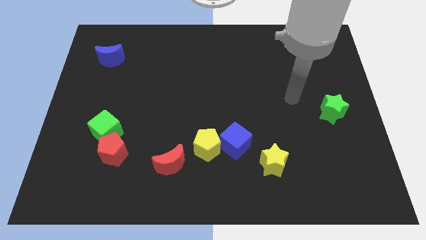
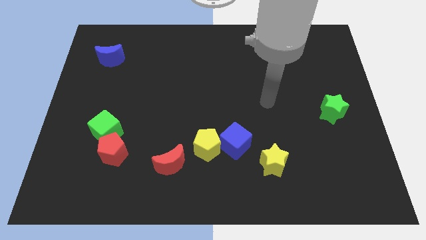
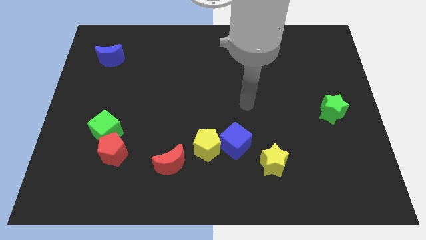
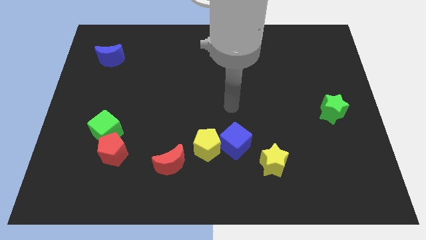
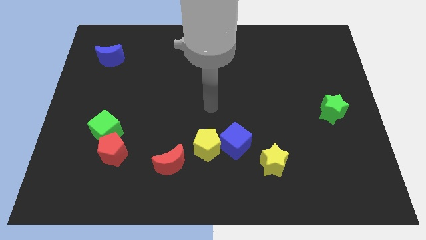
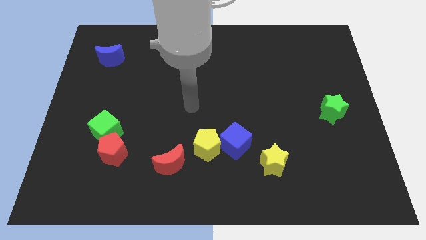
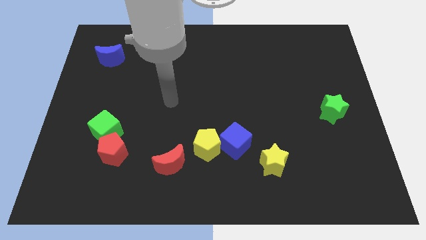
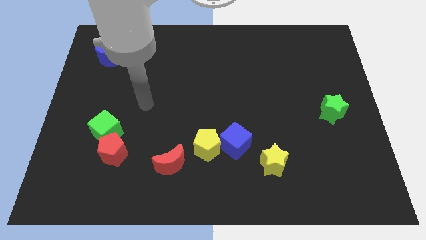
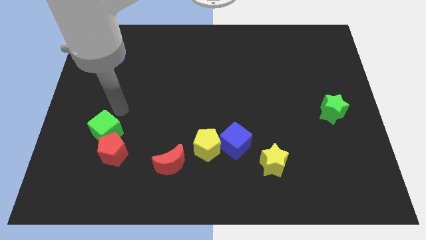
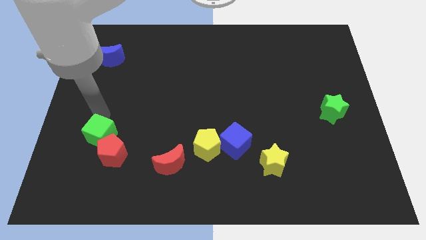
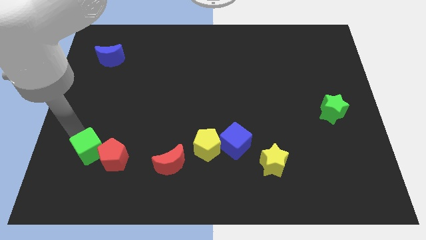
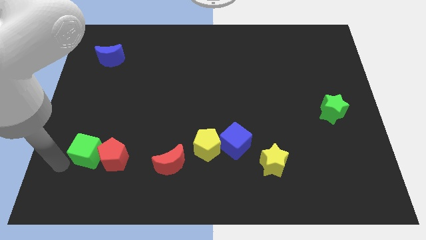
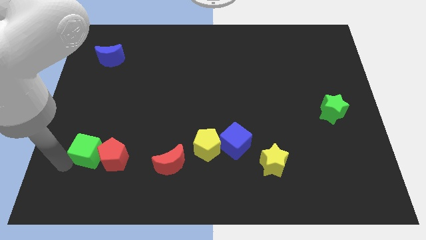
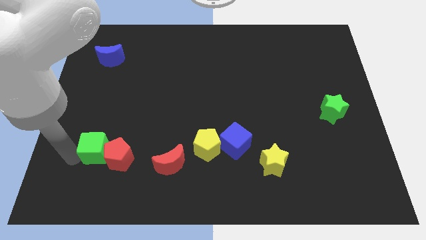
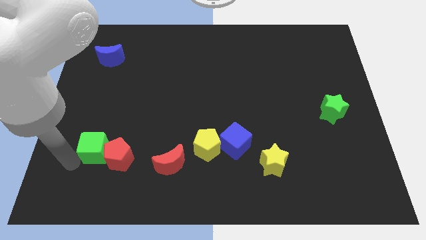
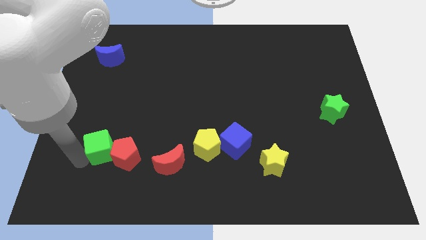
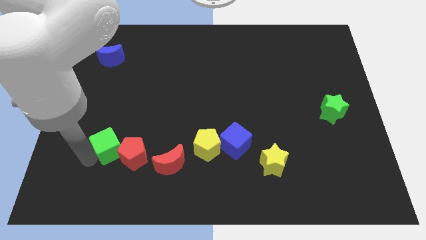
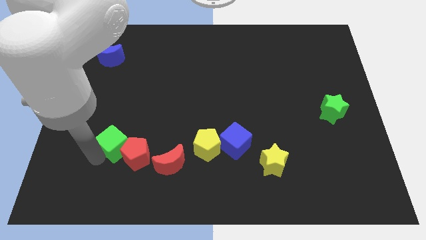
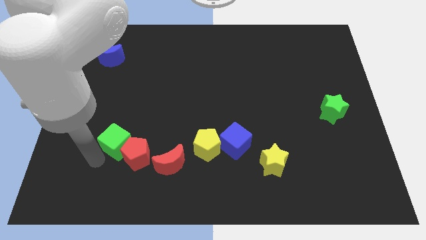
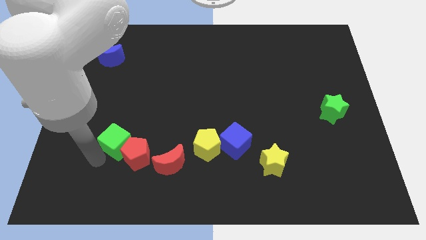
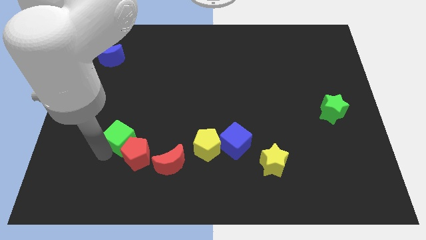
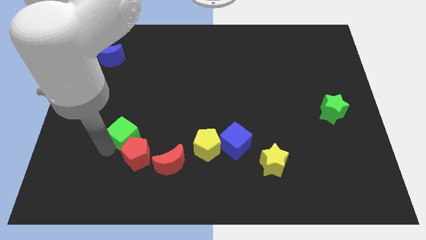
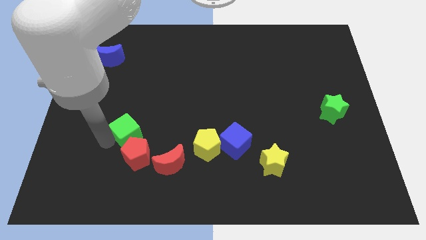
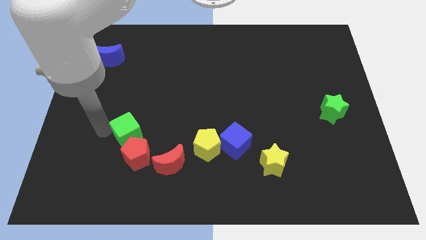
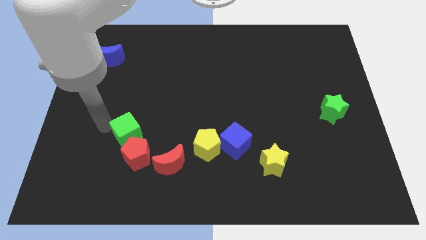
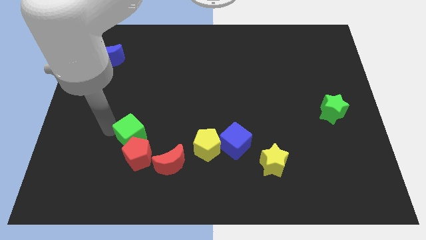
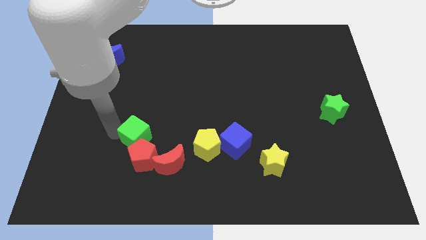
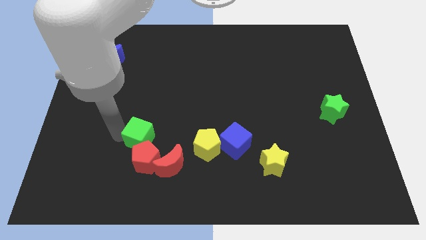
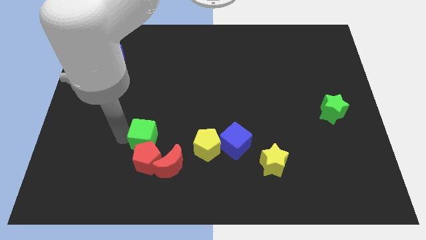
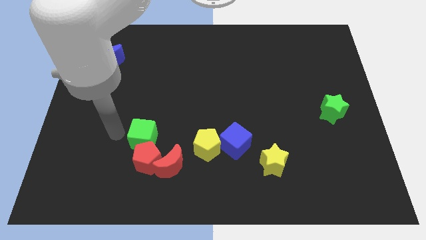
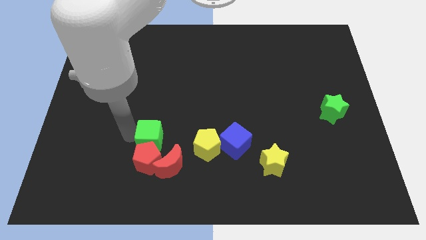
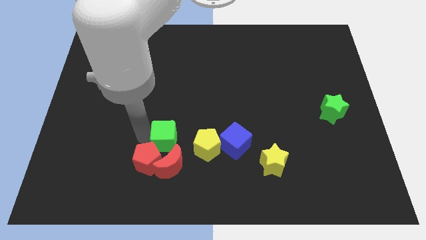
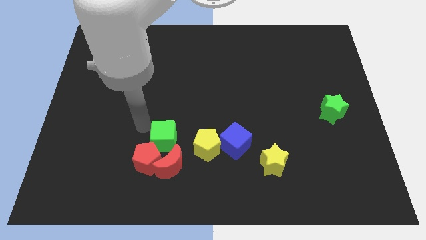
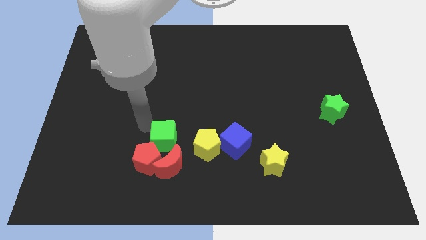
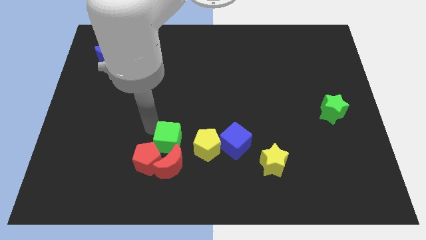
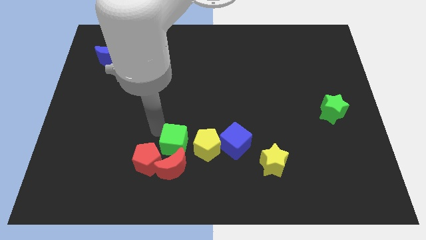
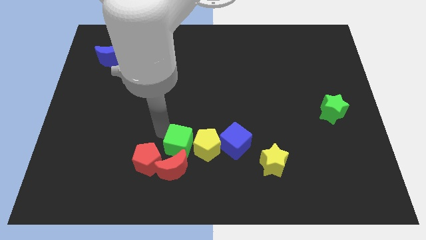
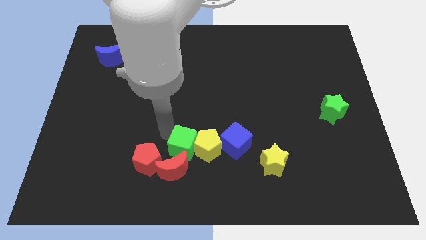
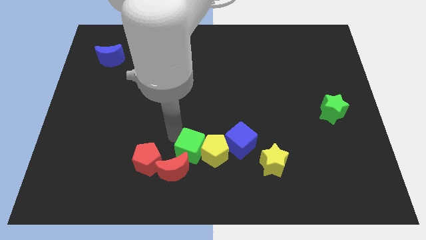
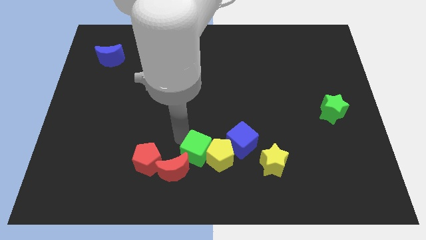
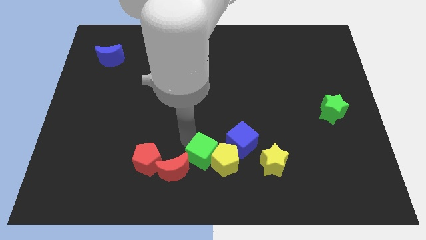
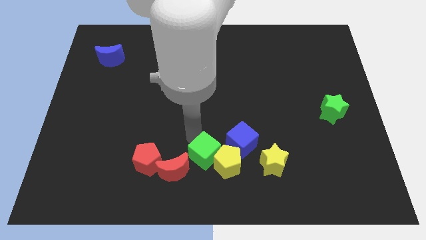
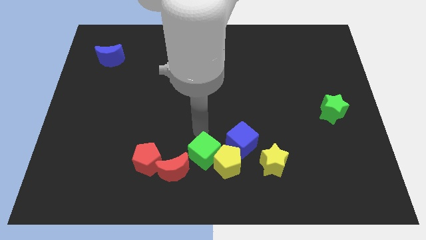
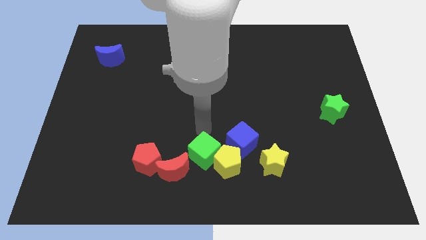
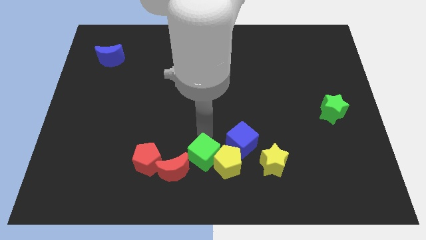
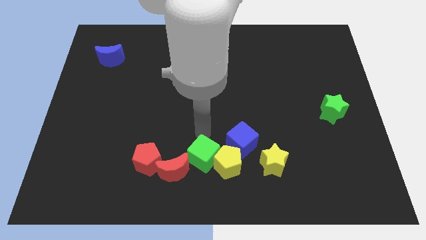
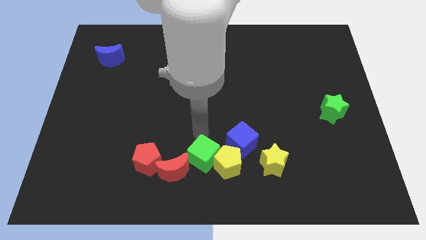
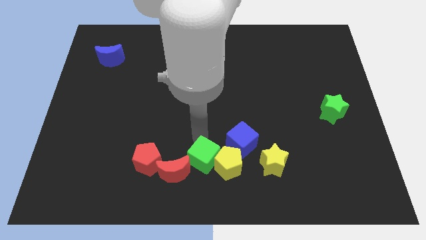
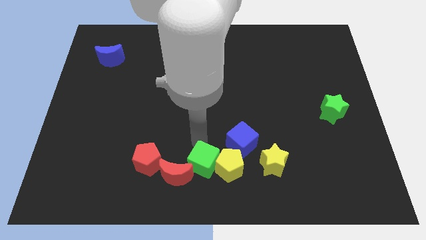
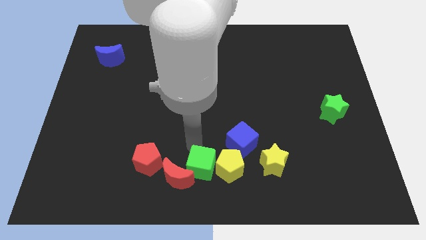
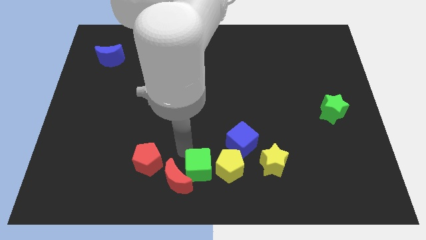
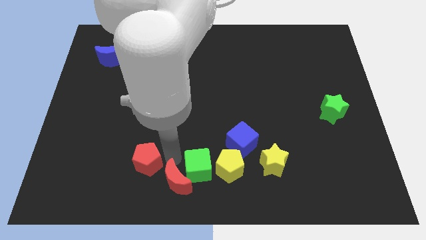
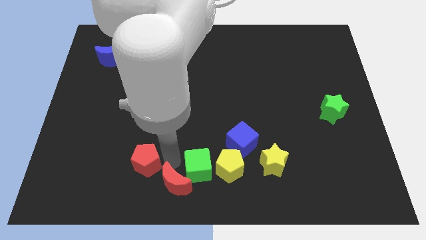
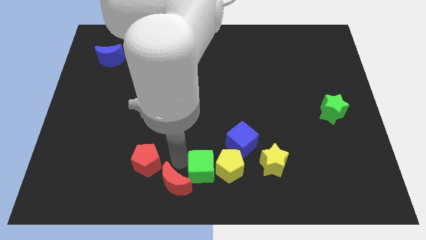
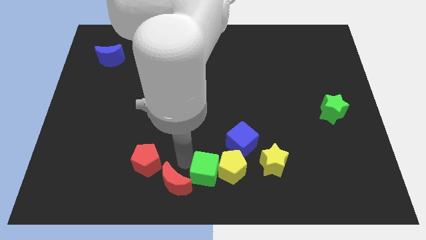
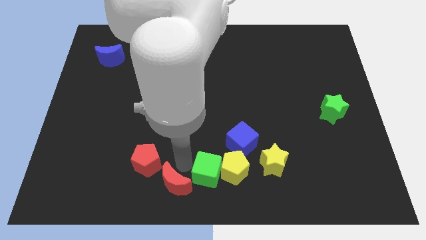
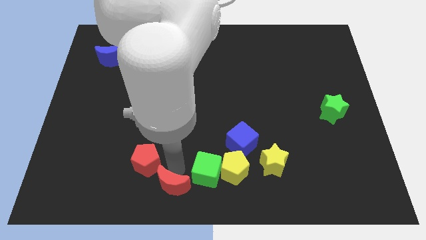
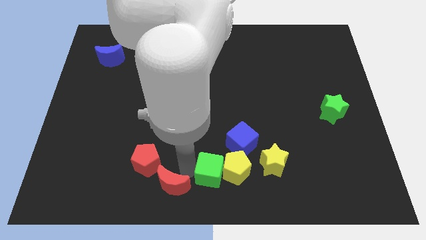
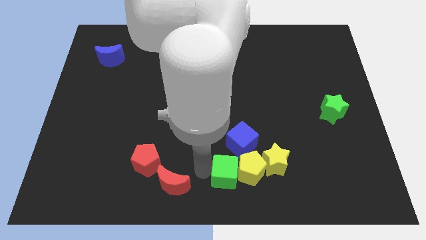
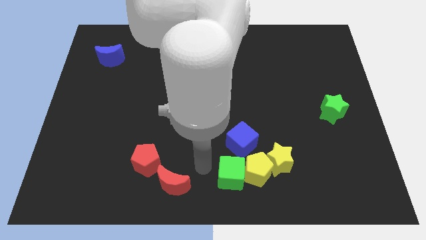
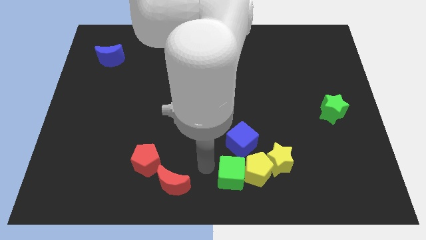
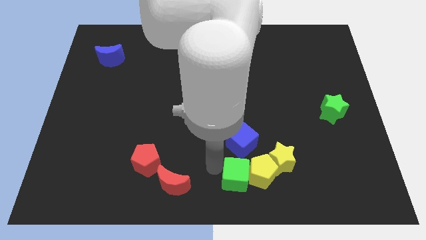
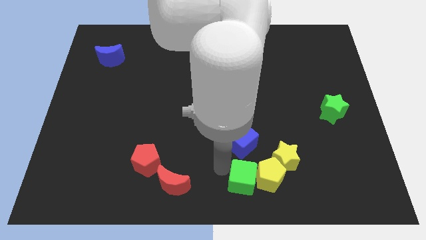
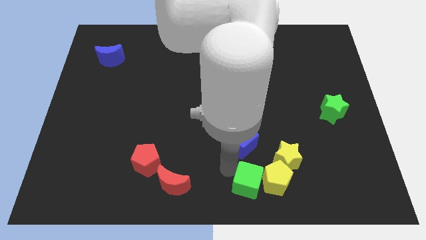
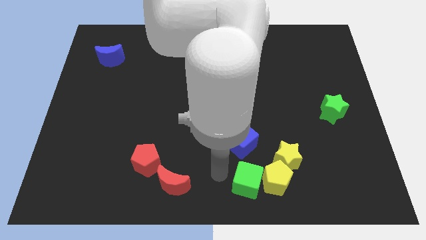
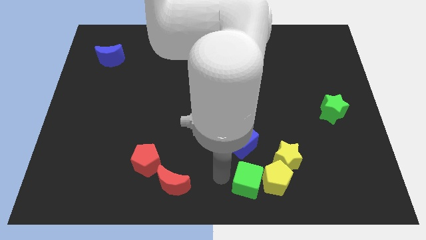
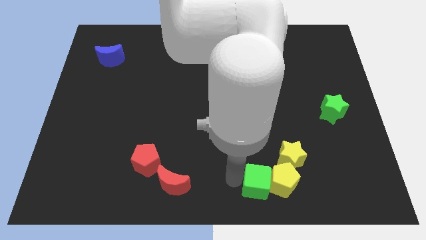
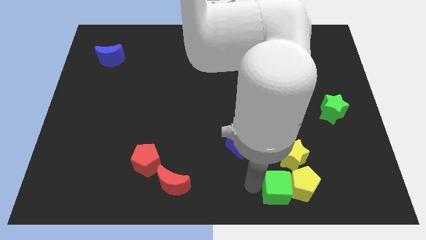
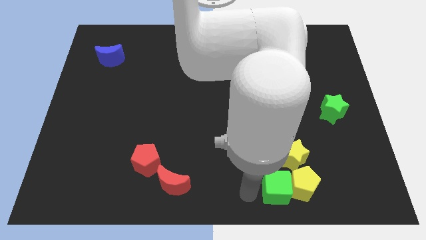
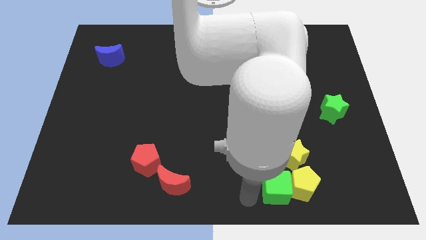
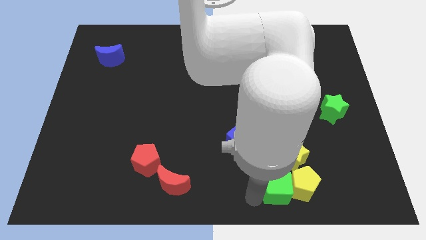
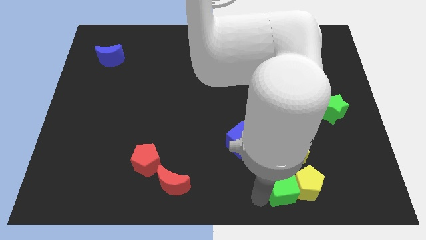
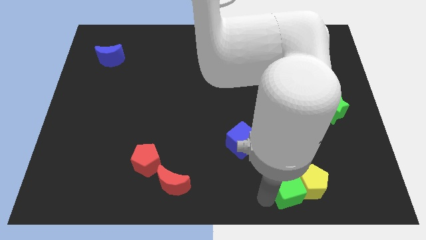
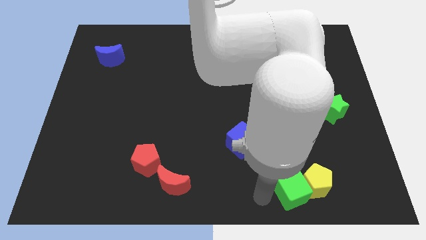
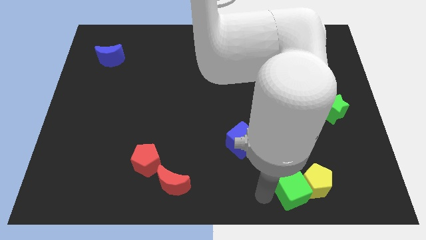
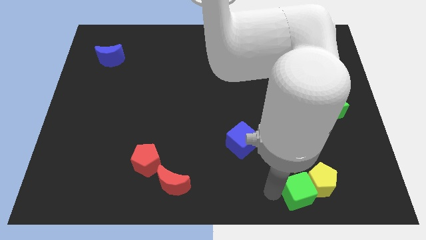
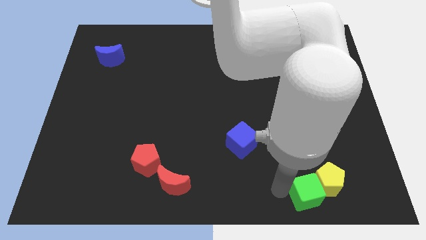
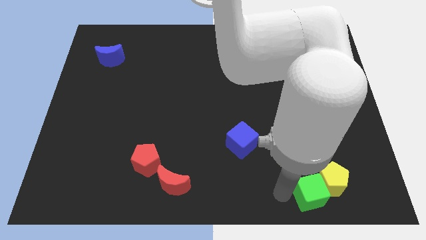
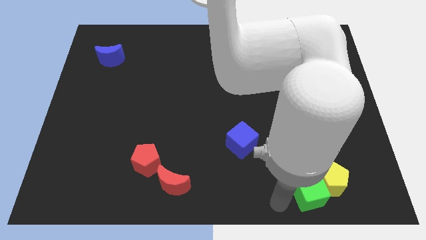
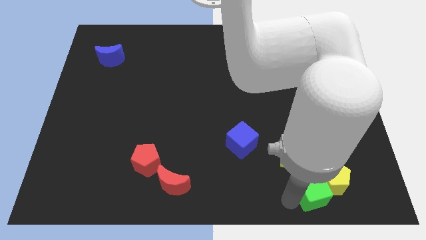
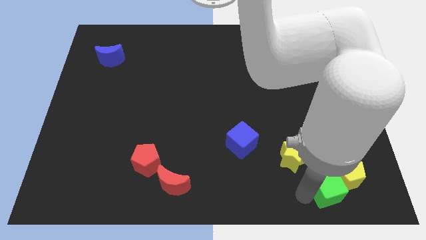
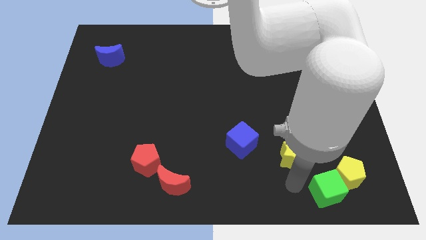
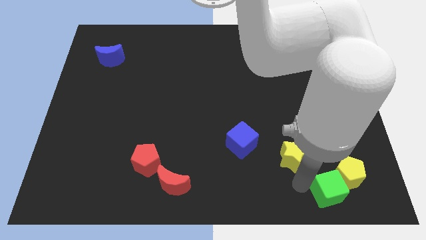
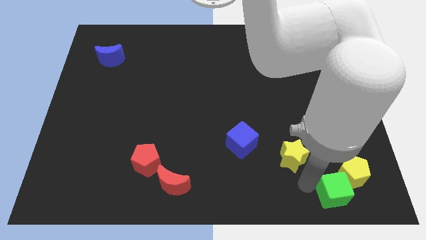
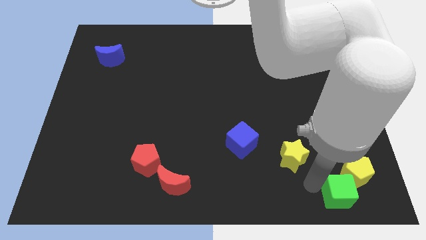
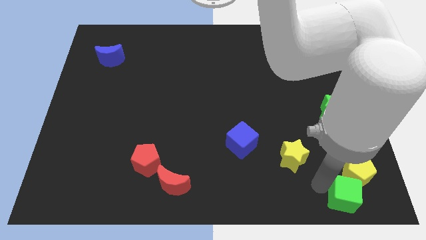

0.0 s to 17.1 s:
slide the green cube to the bottom right of the board
